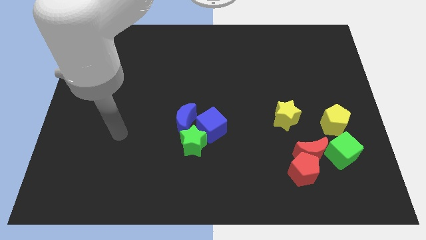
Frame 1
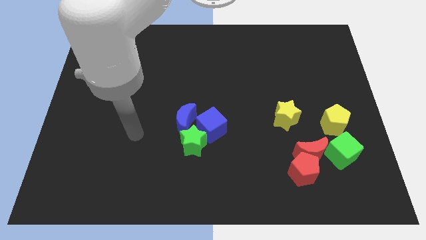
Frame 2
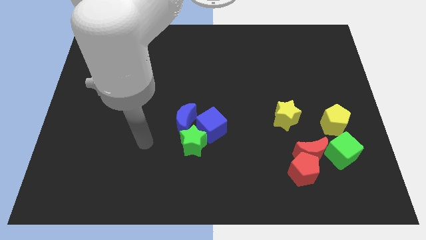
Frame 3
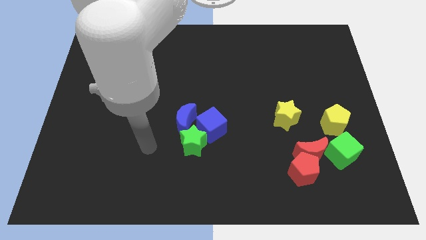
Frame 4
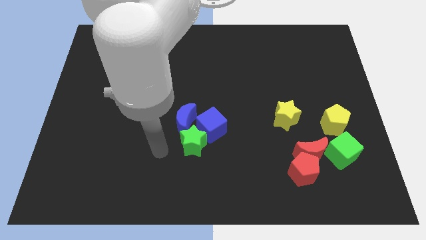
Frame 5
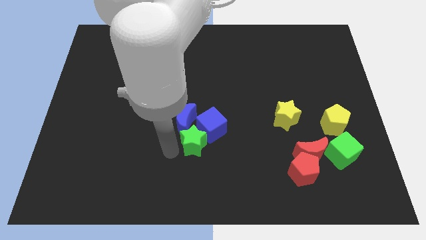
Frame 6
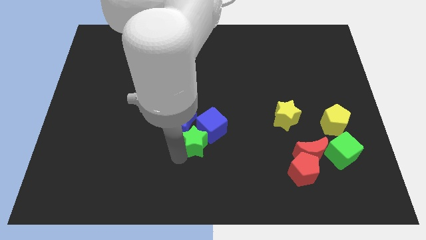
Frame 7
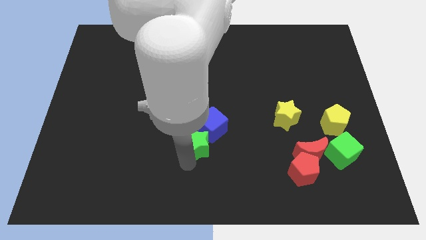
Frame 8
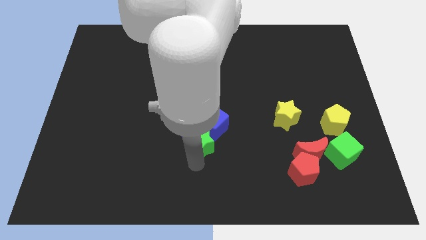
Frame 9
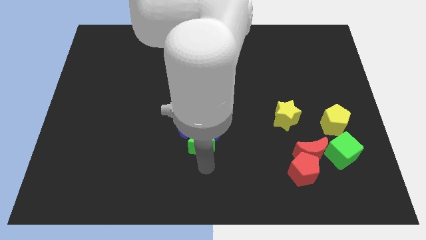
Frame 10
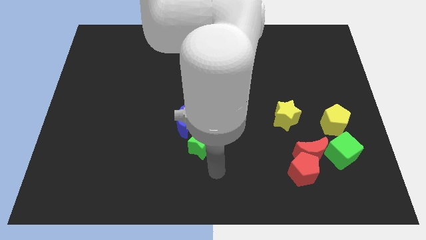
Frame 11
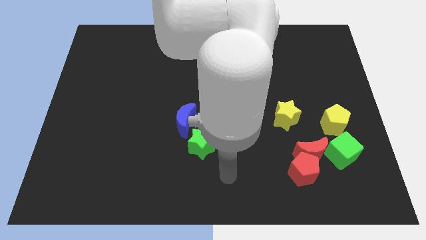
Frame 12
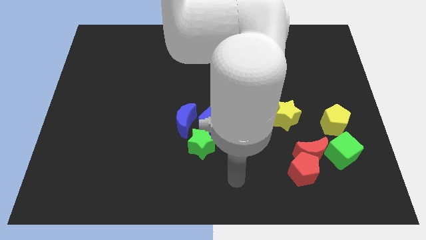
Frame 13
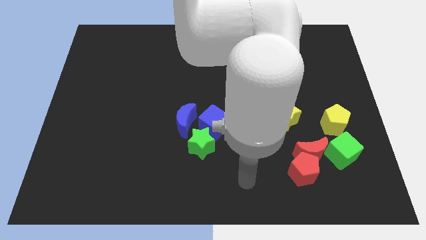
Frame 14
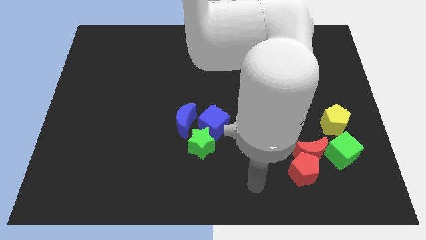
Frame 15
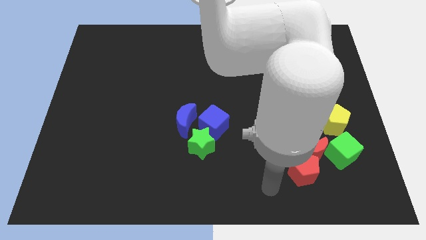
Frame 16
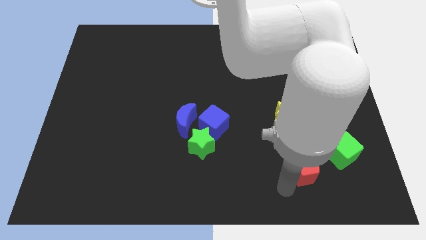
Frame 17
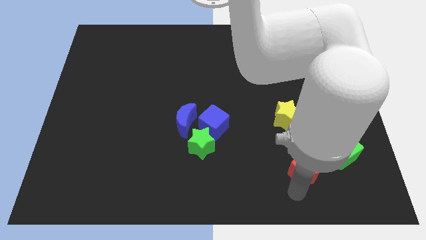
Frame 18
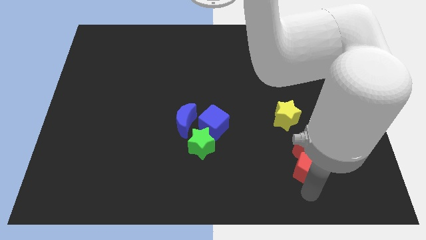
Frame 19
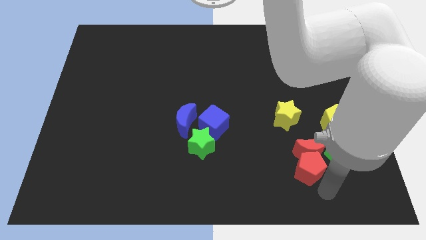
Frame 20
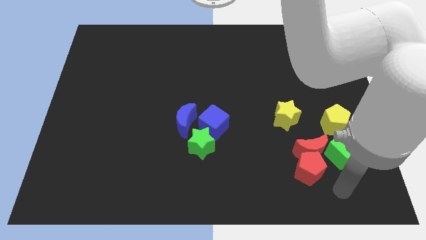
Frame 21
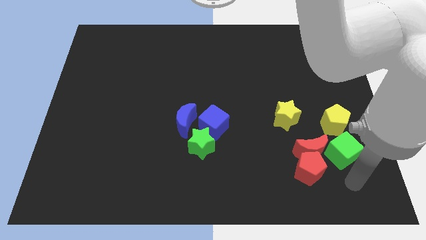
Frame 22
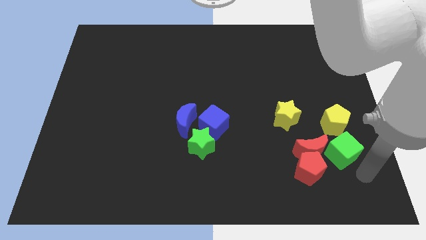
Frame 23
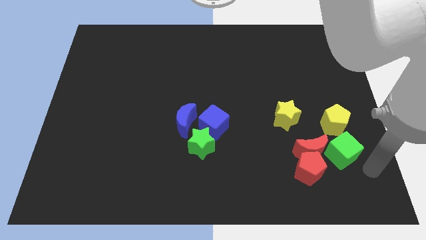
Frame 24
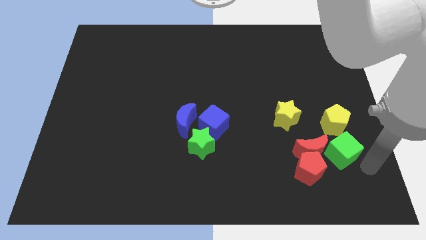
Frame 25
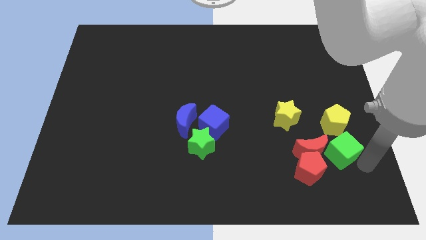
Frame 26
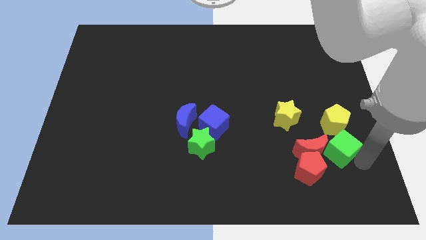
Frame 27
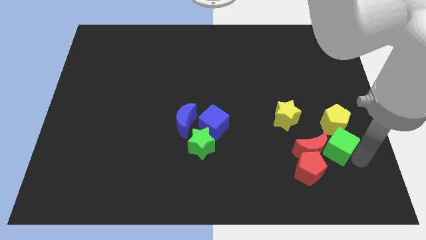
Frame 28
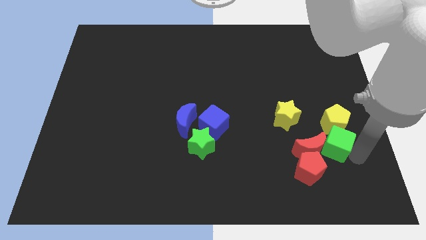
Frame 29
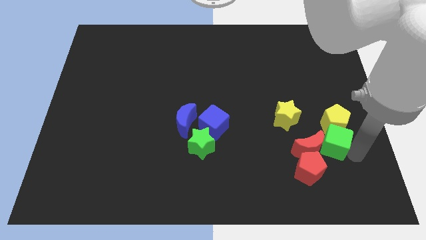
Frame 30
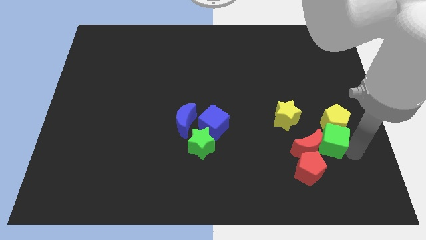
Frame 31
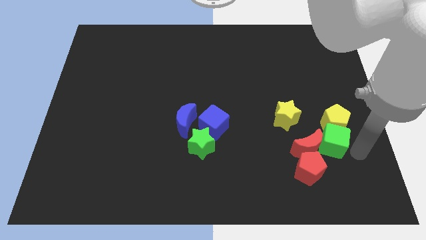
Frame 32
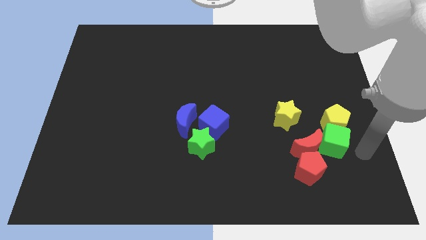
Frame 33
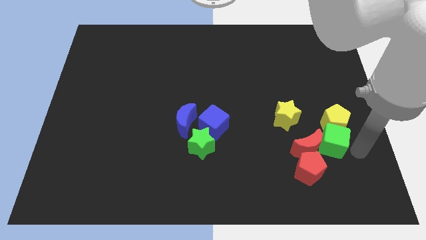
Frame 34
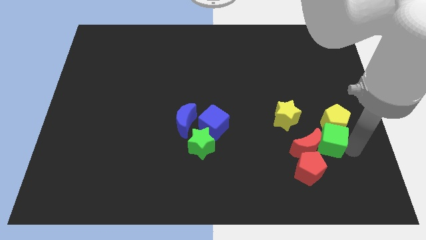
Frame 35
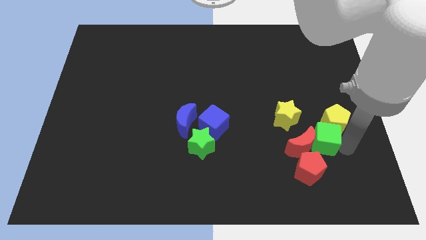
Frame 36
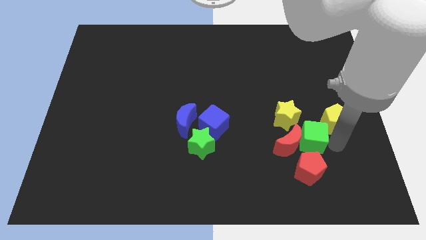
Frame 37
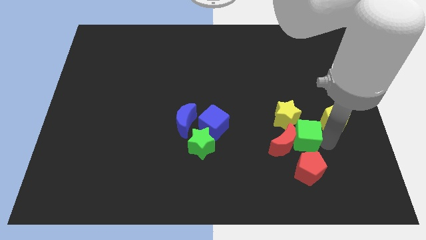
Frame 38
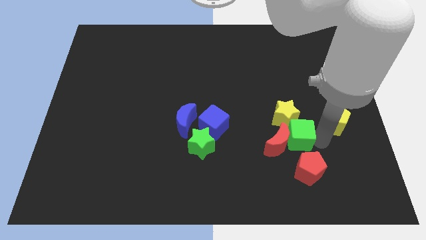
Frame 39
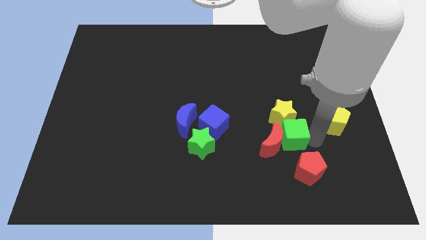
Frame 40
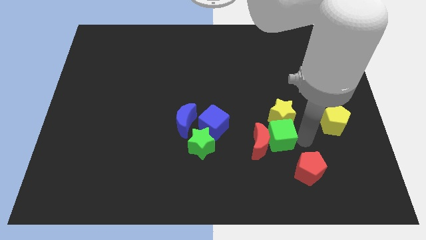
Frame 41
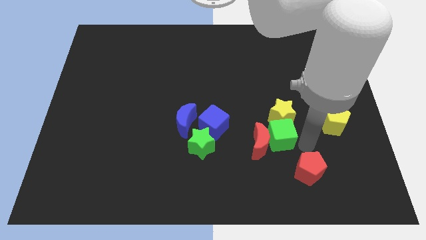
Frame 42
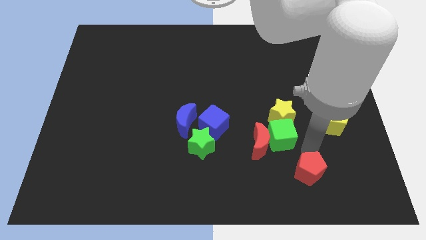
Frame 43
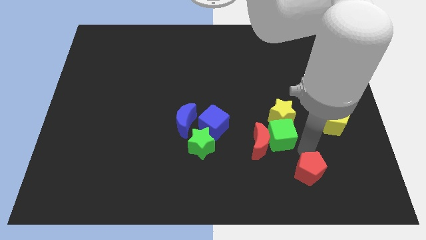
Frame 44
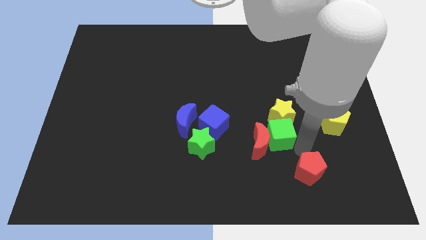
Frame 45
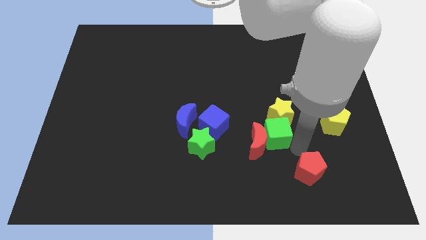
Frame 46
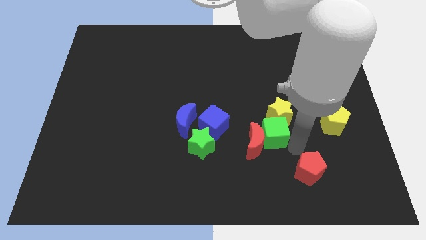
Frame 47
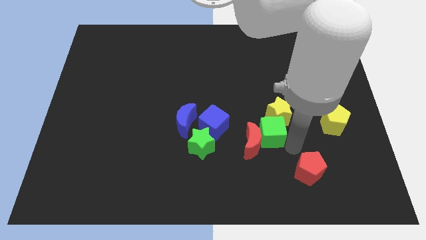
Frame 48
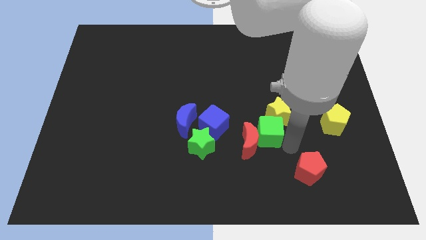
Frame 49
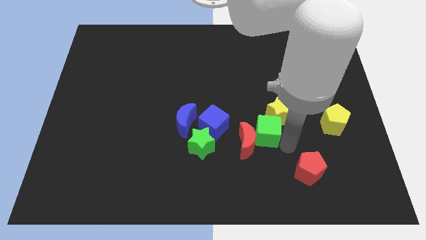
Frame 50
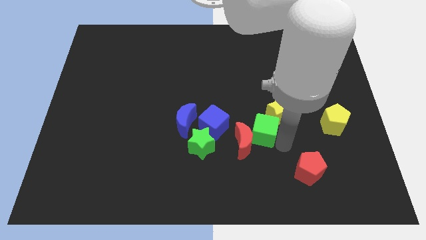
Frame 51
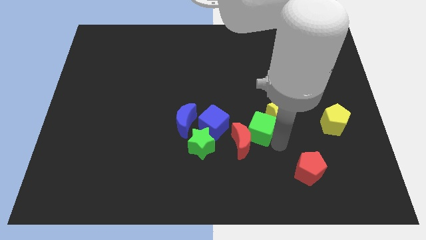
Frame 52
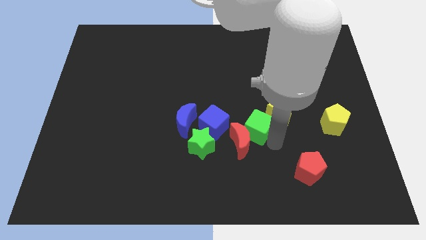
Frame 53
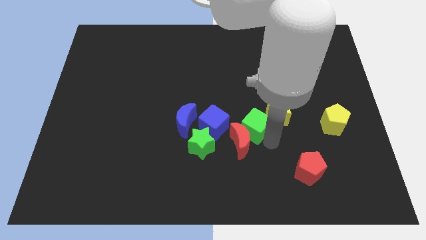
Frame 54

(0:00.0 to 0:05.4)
slide the green cube to the middle of the board

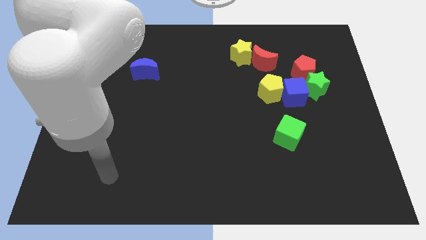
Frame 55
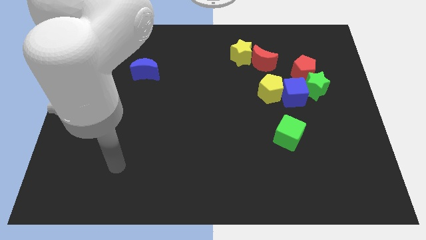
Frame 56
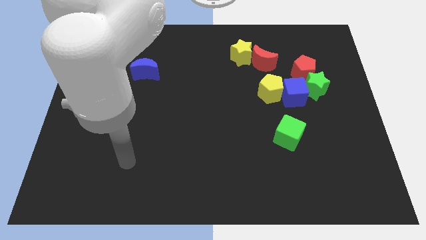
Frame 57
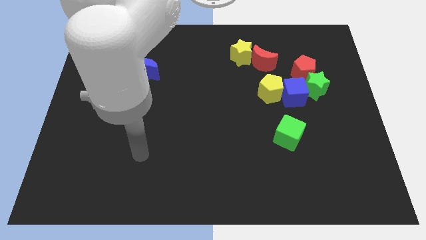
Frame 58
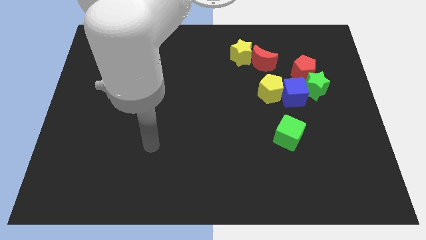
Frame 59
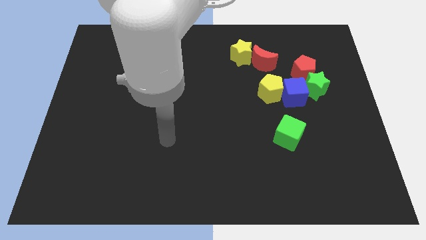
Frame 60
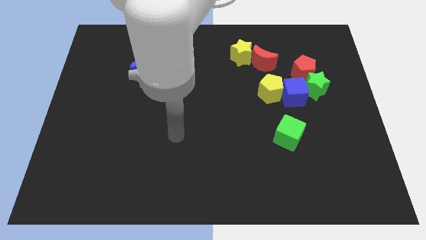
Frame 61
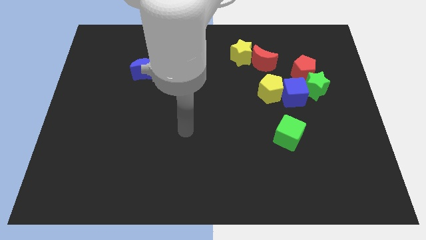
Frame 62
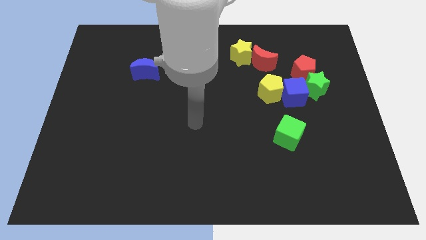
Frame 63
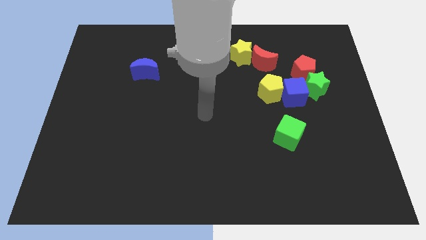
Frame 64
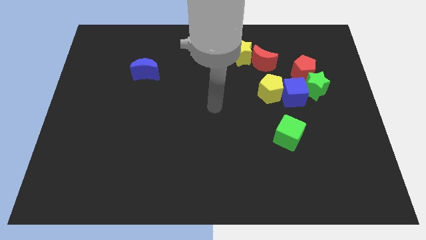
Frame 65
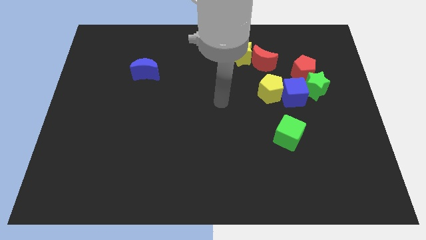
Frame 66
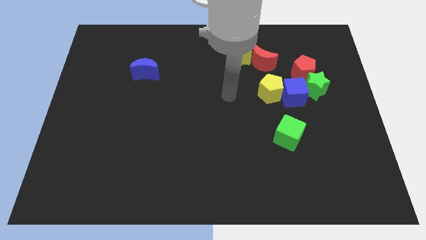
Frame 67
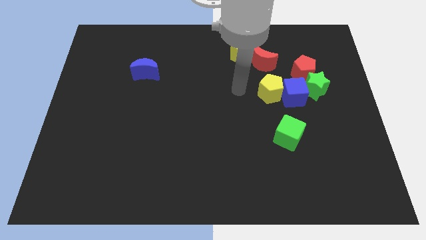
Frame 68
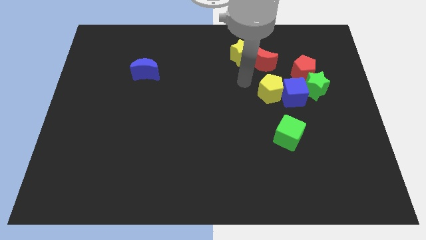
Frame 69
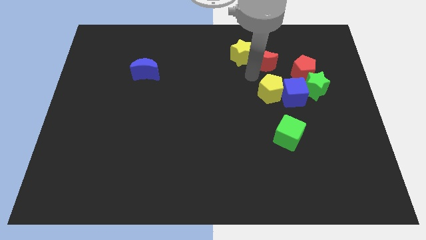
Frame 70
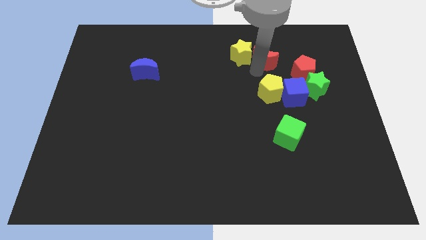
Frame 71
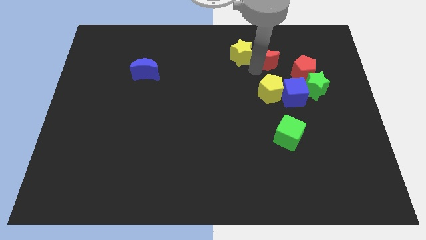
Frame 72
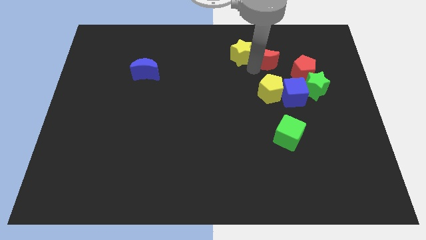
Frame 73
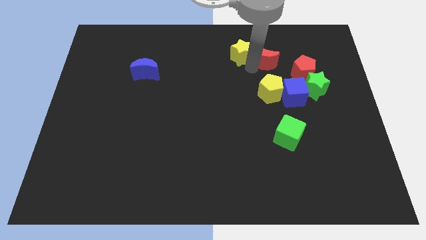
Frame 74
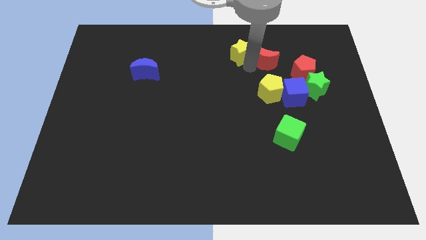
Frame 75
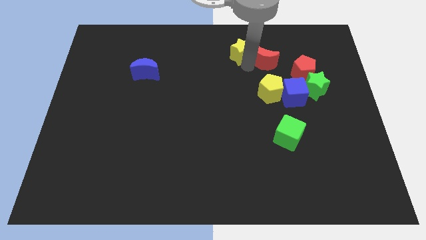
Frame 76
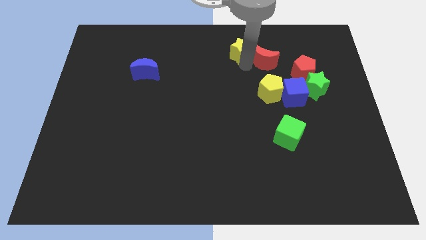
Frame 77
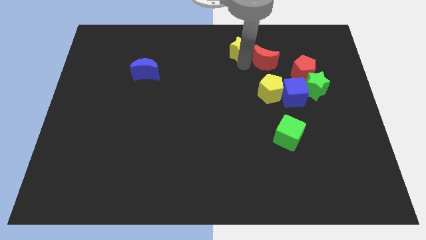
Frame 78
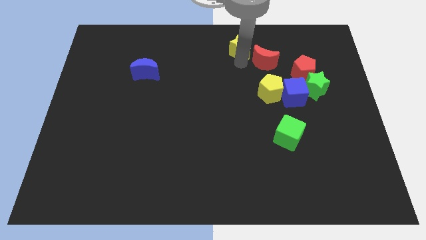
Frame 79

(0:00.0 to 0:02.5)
slide the yellow star to the towards your base
